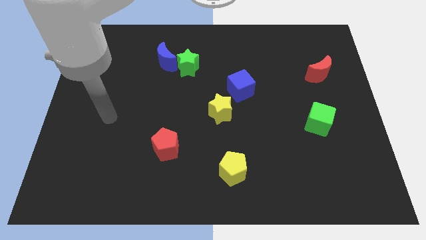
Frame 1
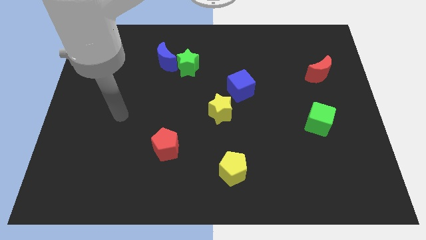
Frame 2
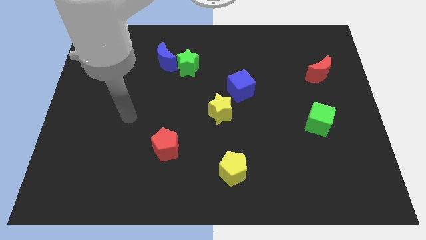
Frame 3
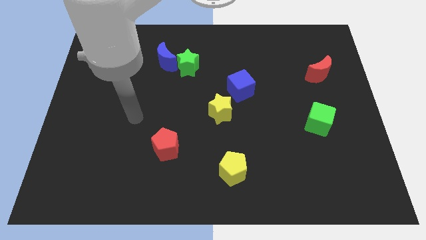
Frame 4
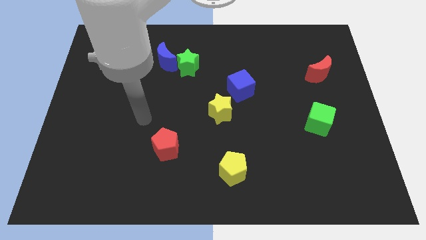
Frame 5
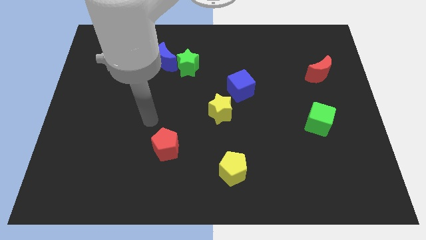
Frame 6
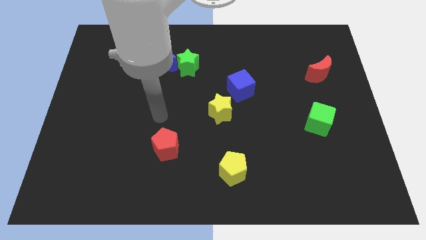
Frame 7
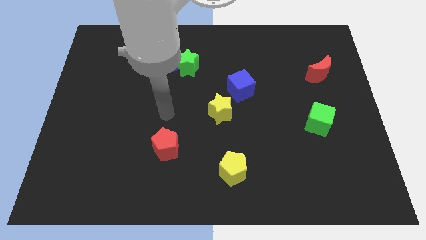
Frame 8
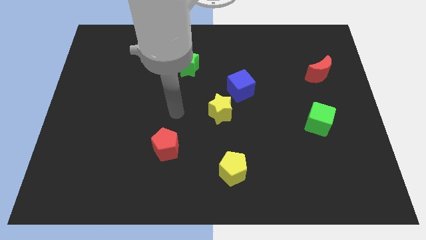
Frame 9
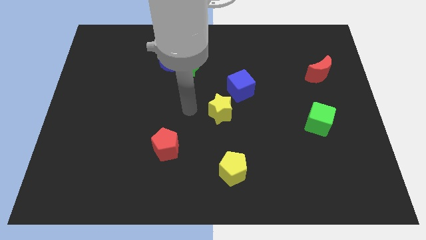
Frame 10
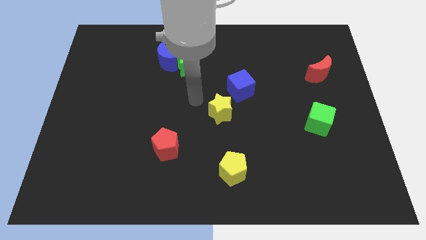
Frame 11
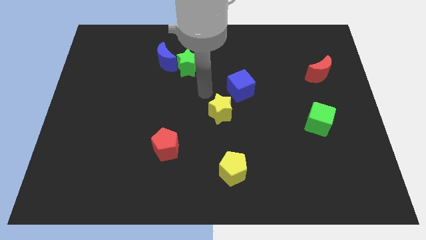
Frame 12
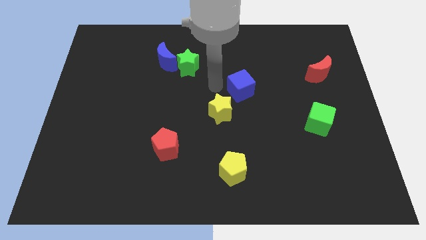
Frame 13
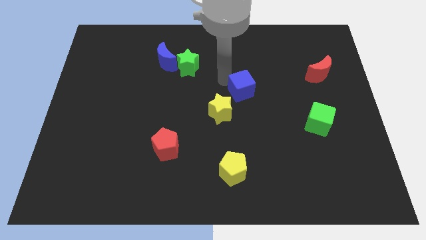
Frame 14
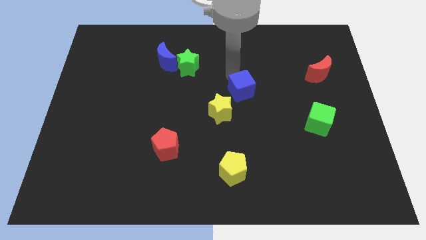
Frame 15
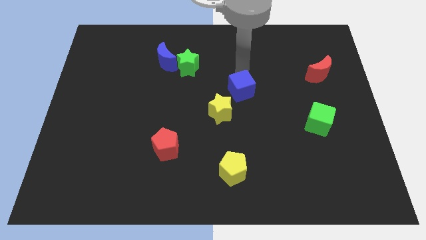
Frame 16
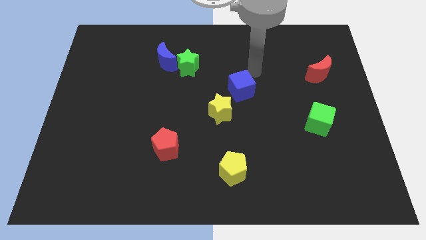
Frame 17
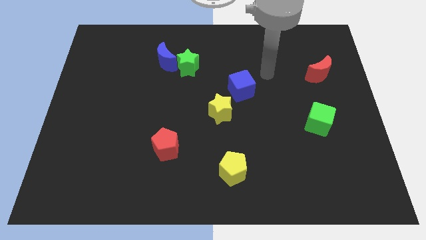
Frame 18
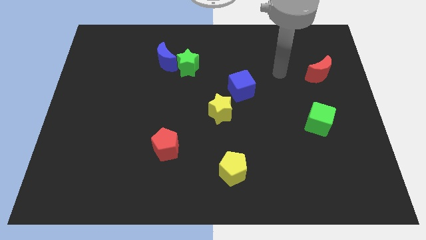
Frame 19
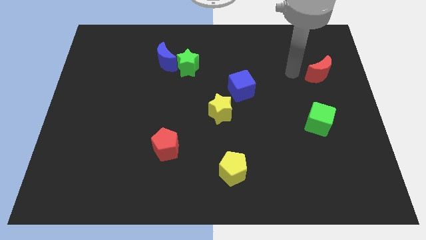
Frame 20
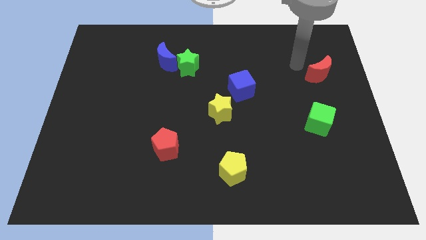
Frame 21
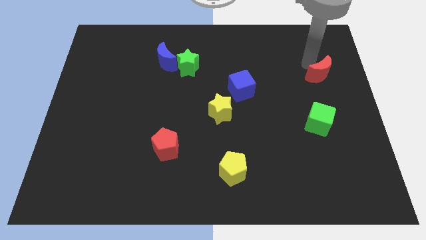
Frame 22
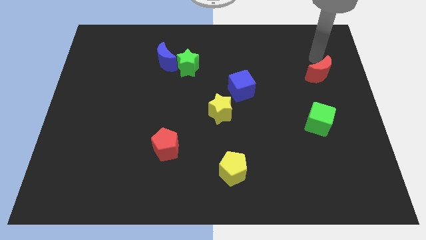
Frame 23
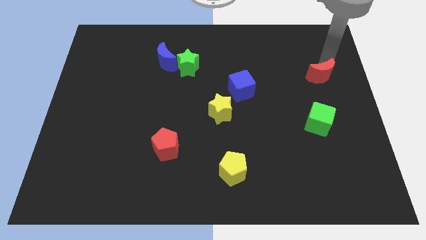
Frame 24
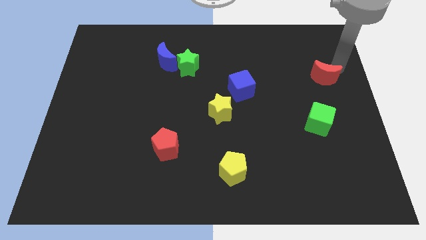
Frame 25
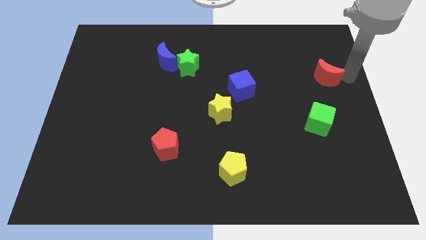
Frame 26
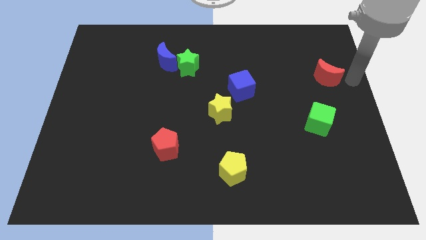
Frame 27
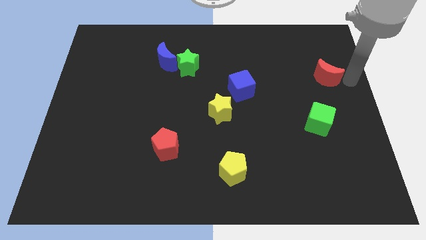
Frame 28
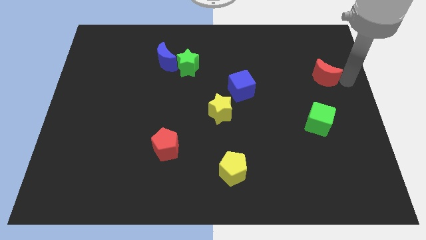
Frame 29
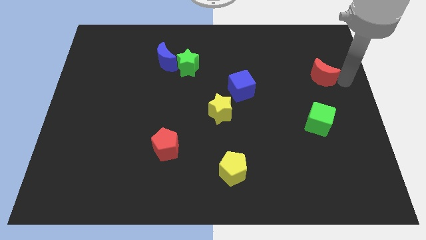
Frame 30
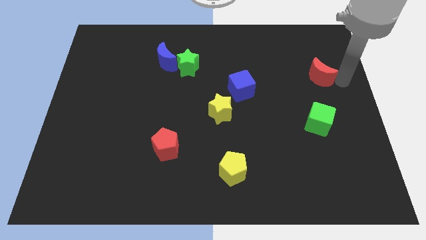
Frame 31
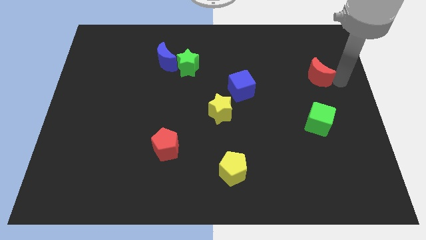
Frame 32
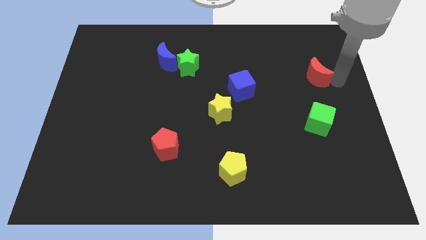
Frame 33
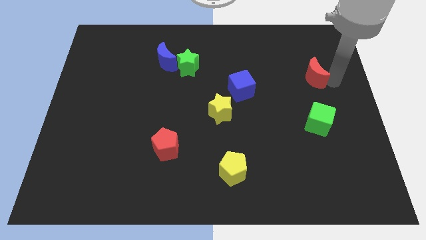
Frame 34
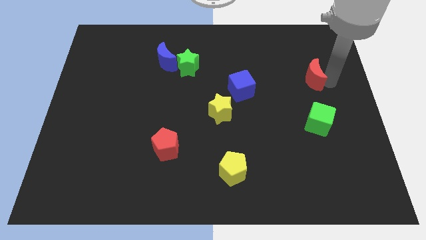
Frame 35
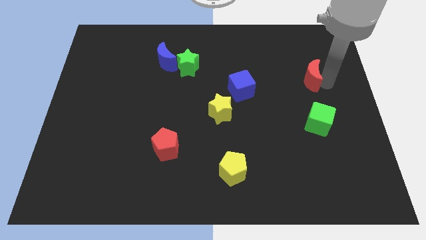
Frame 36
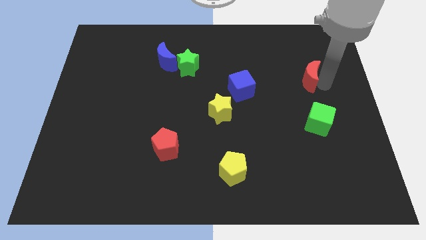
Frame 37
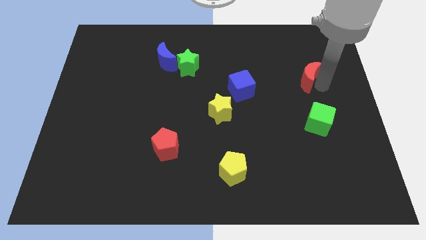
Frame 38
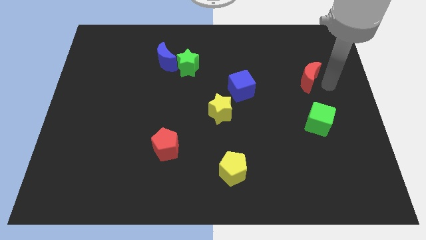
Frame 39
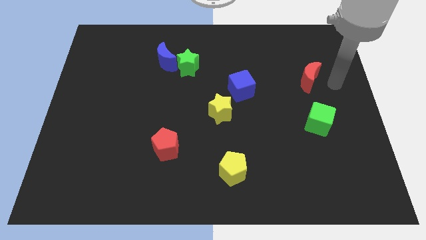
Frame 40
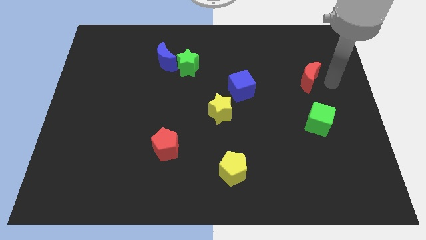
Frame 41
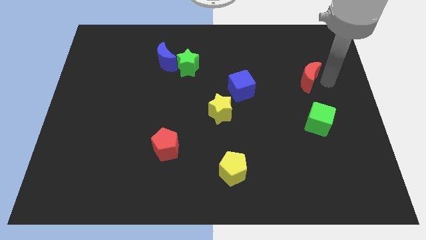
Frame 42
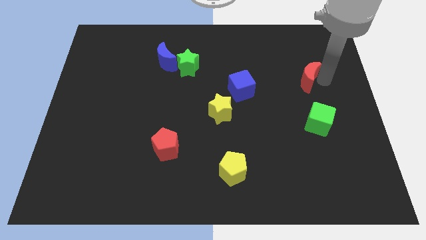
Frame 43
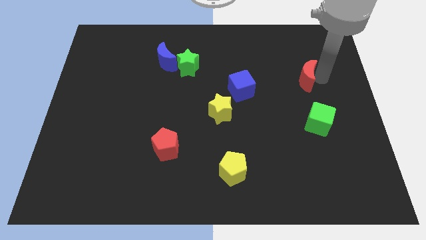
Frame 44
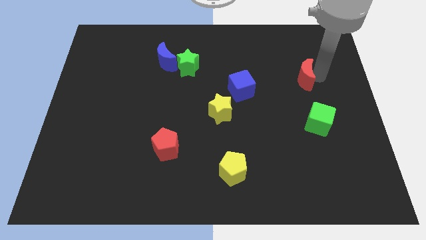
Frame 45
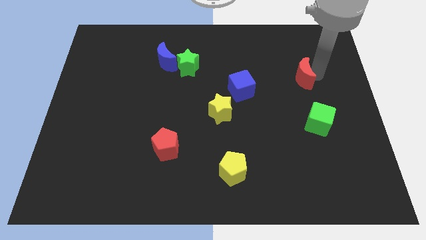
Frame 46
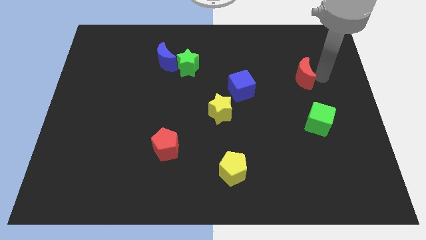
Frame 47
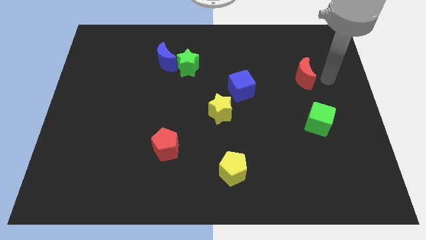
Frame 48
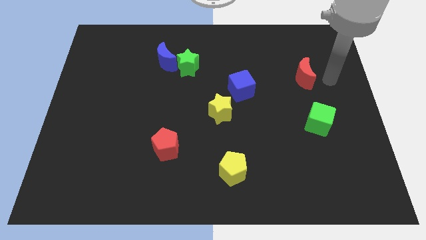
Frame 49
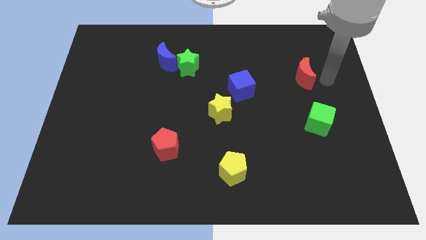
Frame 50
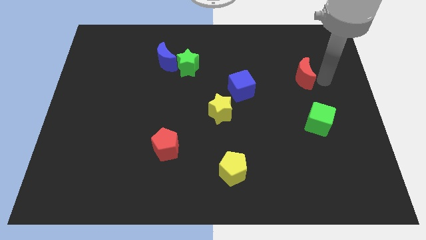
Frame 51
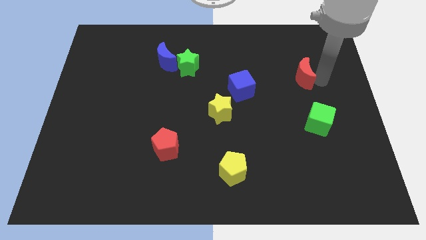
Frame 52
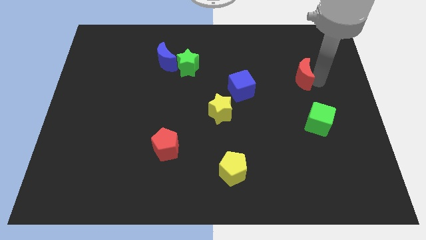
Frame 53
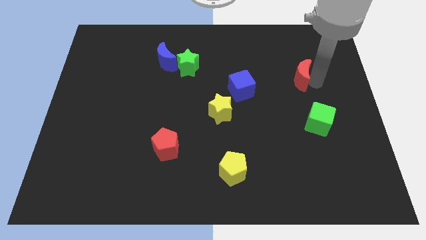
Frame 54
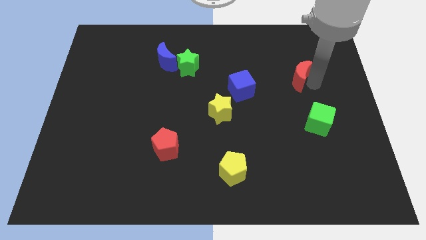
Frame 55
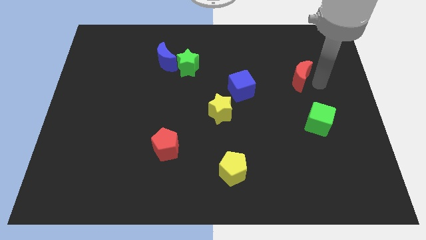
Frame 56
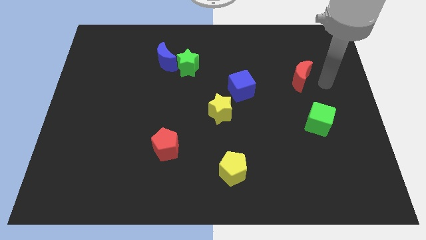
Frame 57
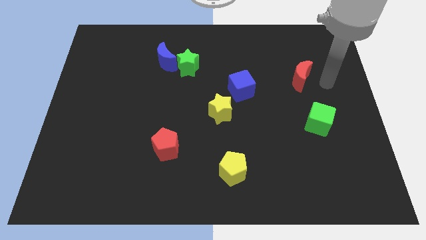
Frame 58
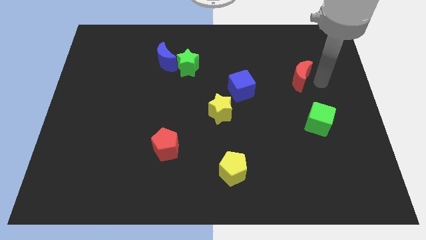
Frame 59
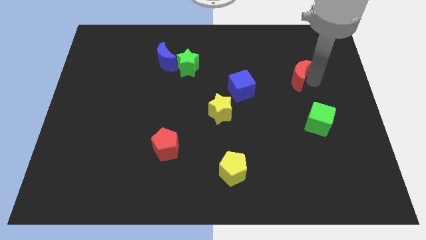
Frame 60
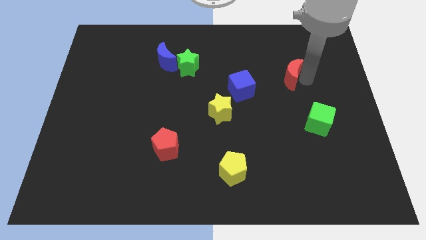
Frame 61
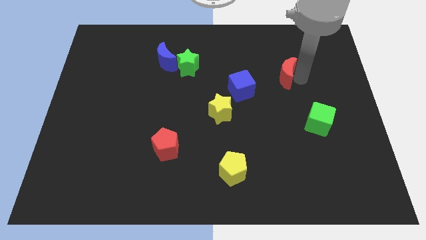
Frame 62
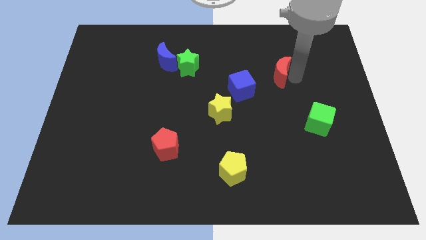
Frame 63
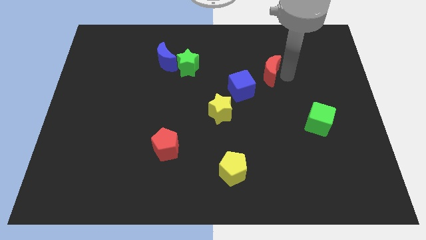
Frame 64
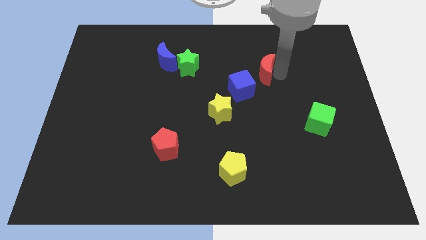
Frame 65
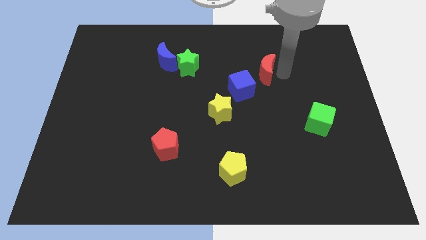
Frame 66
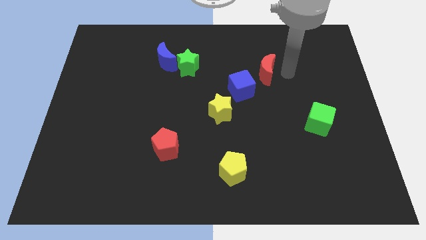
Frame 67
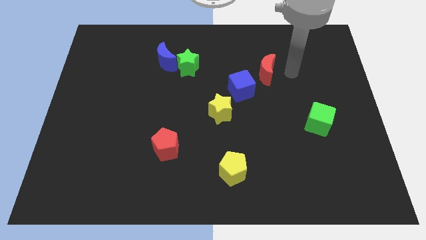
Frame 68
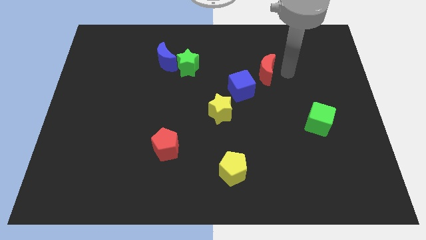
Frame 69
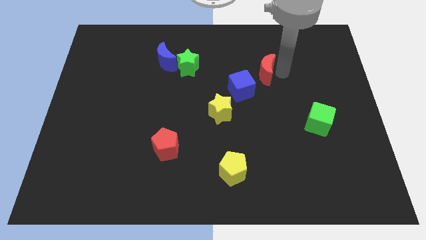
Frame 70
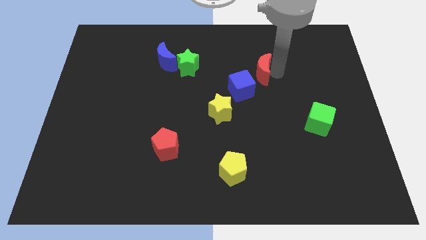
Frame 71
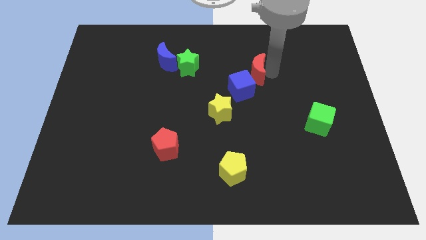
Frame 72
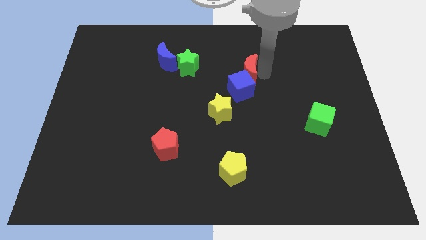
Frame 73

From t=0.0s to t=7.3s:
slide the red moon to the right side of the green star
